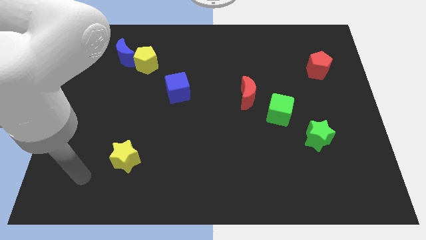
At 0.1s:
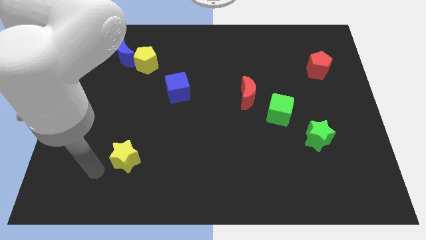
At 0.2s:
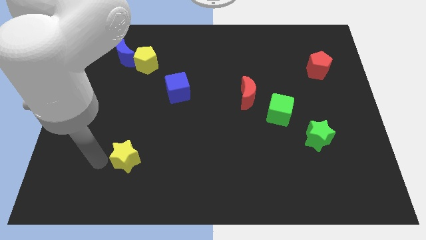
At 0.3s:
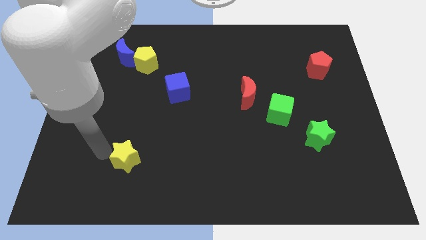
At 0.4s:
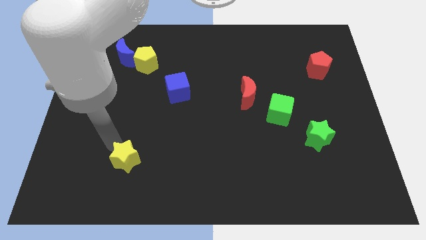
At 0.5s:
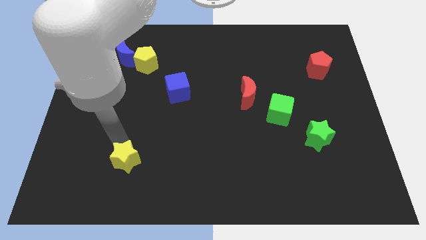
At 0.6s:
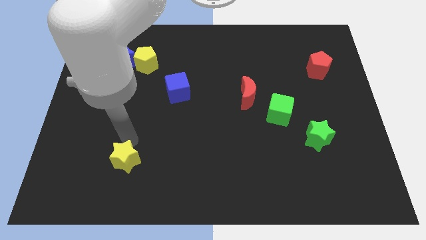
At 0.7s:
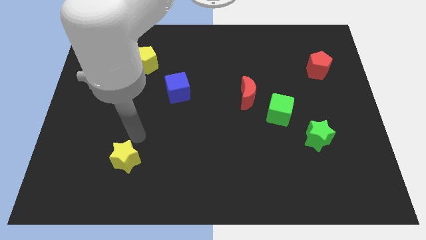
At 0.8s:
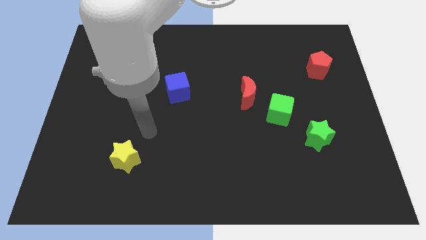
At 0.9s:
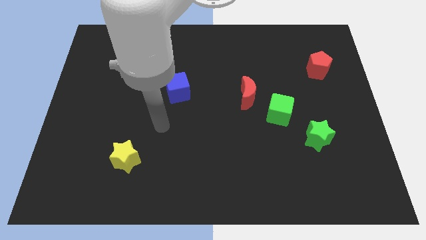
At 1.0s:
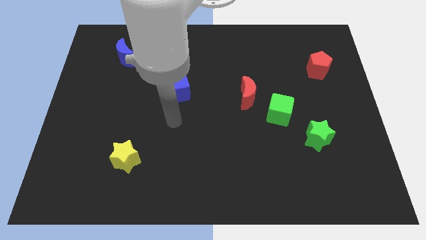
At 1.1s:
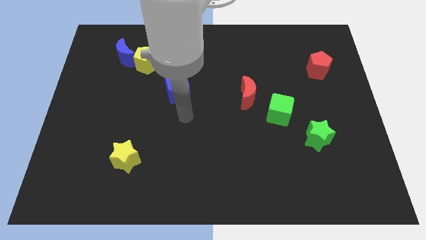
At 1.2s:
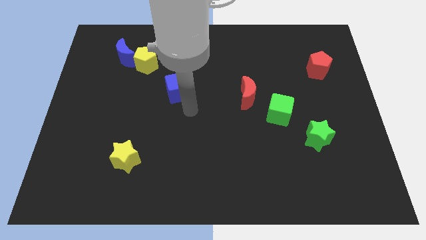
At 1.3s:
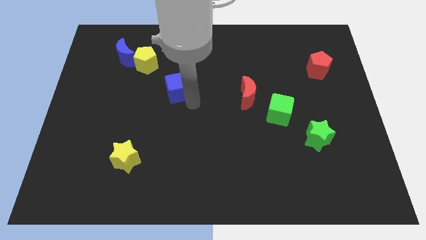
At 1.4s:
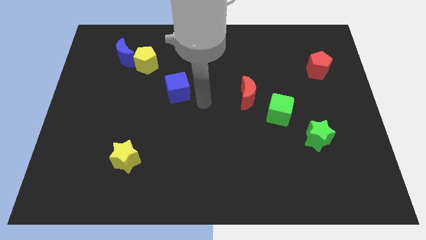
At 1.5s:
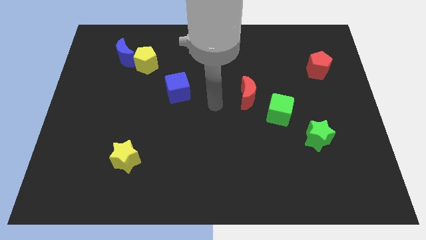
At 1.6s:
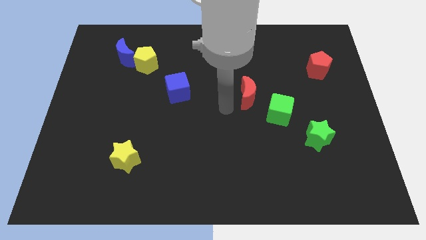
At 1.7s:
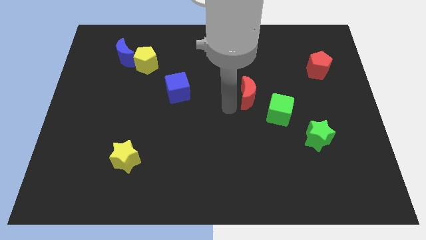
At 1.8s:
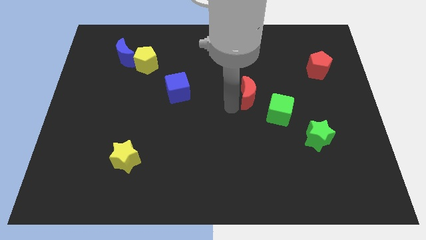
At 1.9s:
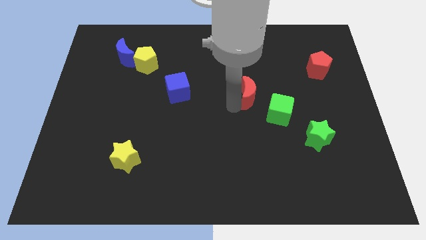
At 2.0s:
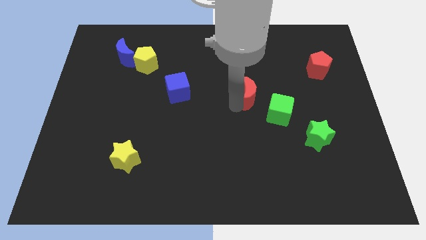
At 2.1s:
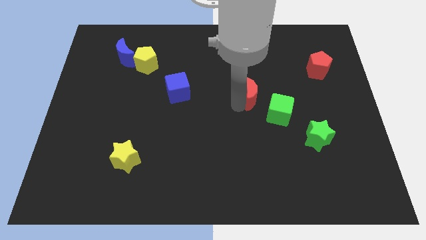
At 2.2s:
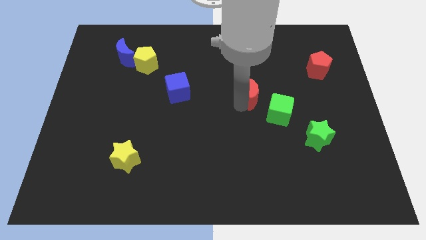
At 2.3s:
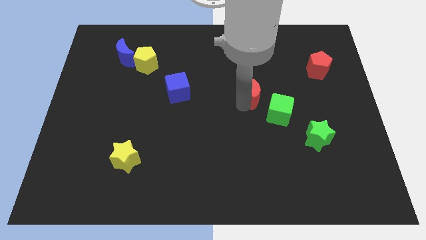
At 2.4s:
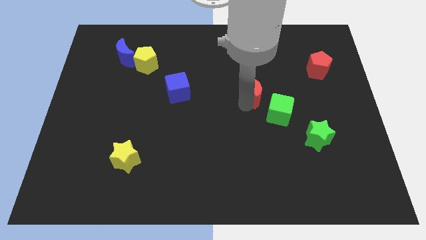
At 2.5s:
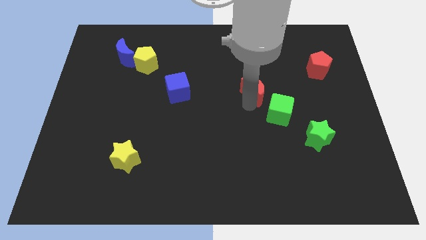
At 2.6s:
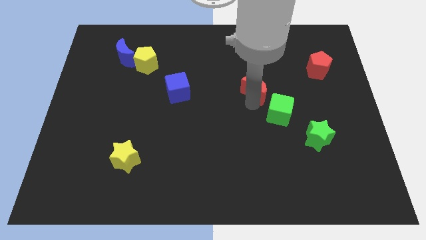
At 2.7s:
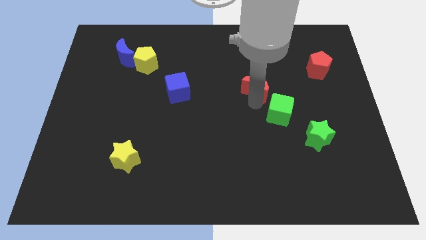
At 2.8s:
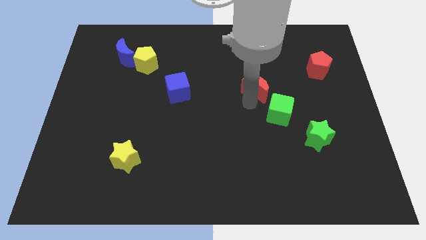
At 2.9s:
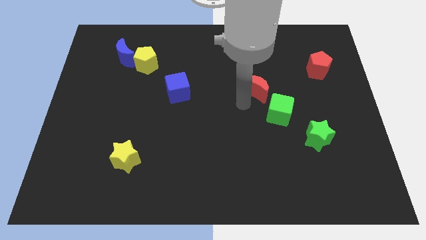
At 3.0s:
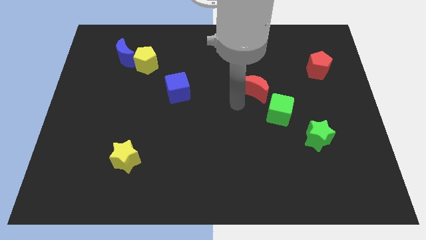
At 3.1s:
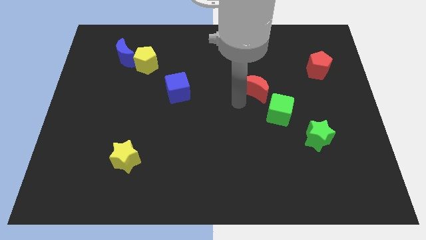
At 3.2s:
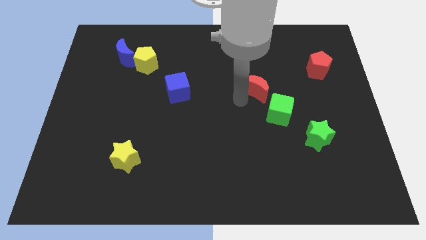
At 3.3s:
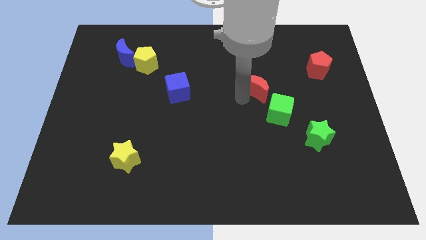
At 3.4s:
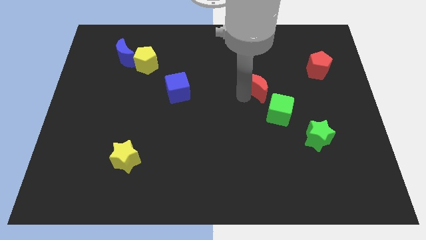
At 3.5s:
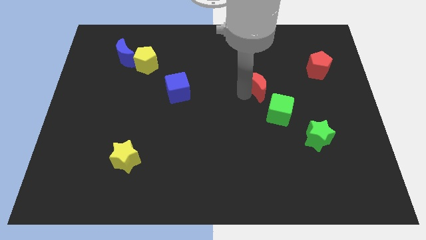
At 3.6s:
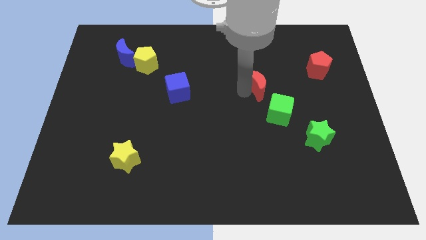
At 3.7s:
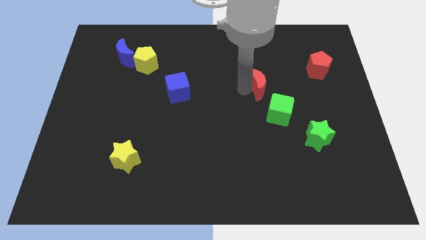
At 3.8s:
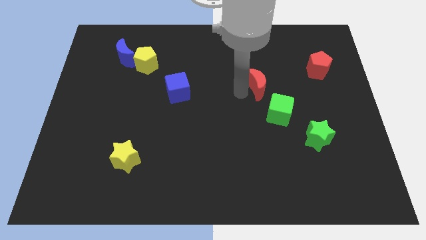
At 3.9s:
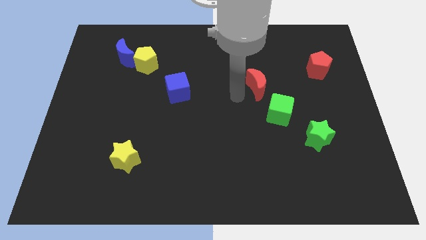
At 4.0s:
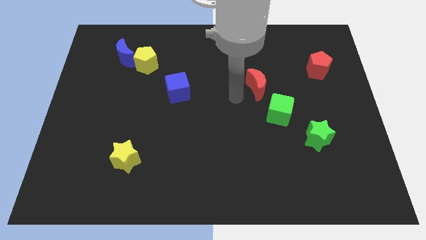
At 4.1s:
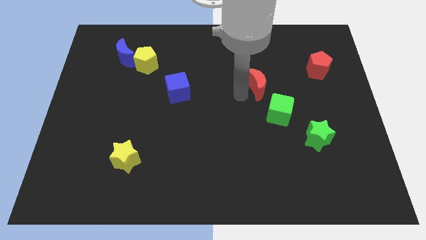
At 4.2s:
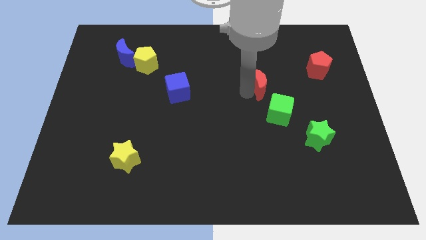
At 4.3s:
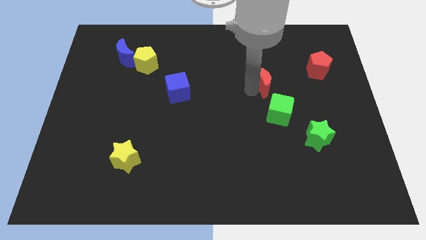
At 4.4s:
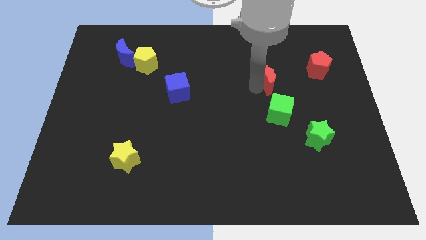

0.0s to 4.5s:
move the red moon diagonally upwards and to the right a little bit

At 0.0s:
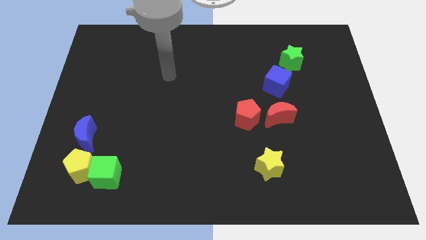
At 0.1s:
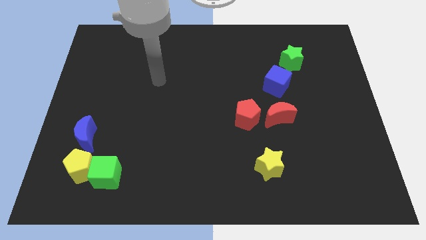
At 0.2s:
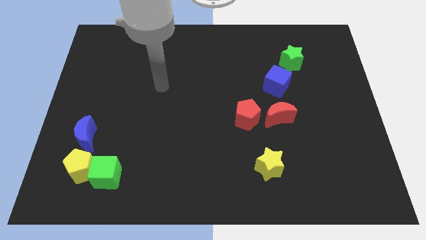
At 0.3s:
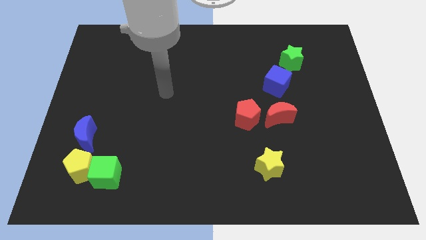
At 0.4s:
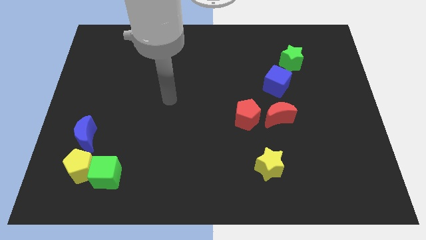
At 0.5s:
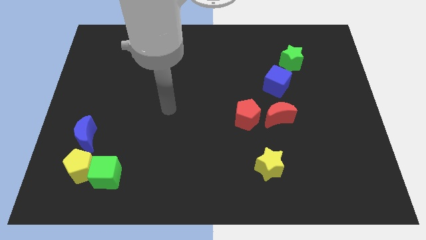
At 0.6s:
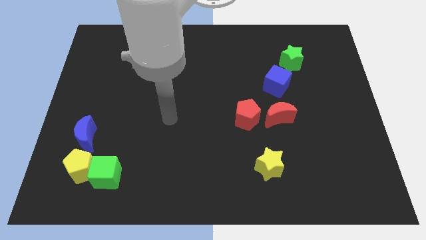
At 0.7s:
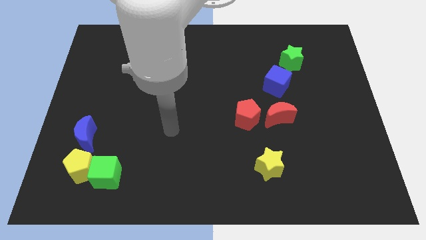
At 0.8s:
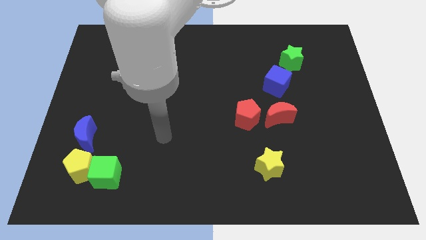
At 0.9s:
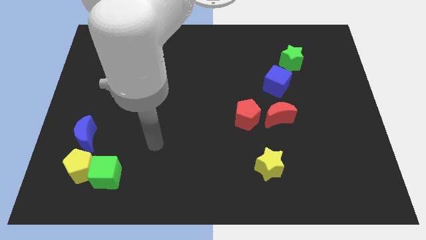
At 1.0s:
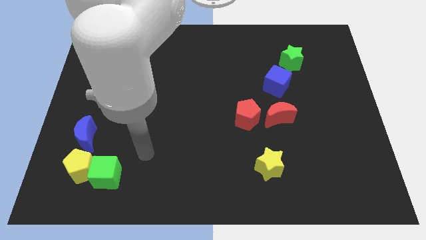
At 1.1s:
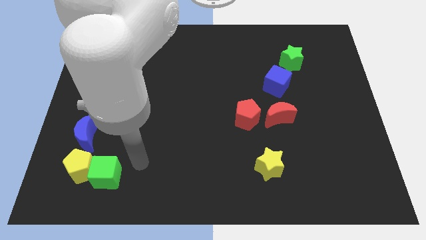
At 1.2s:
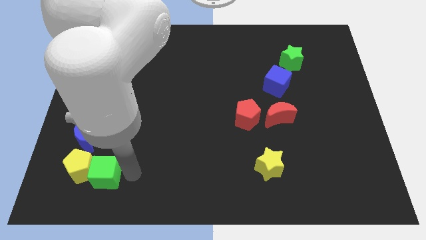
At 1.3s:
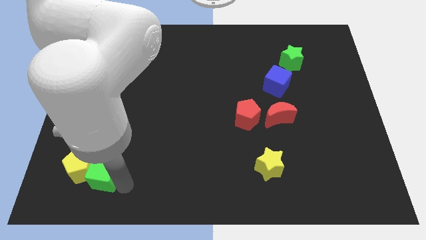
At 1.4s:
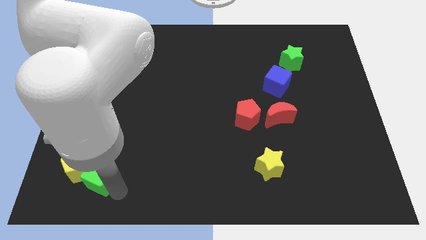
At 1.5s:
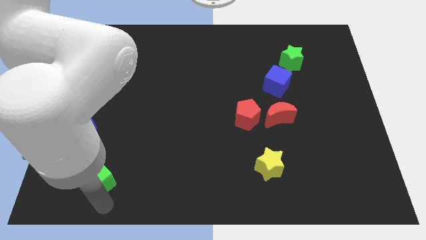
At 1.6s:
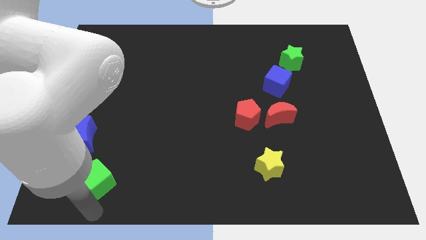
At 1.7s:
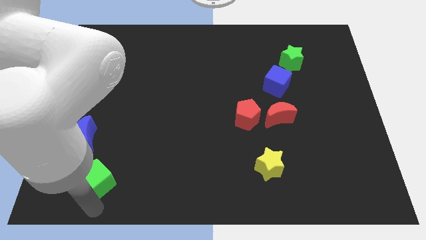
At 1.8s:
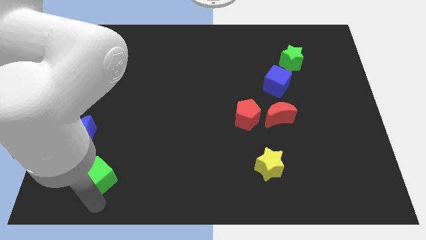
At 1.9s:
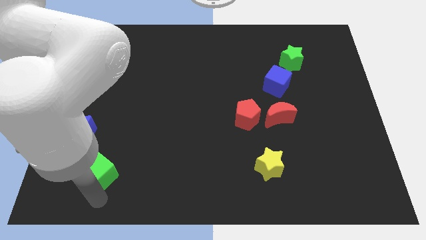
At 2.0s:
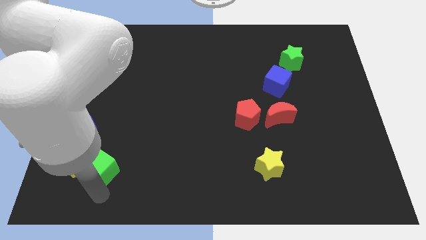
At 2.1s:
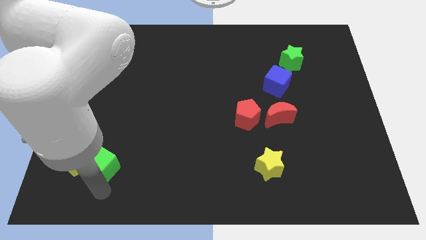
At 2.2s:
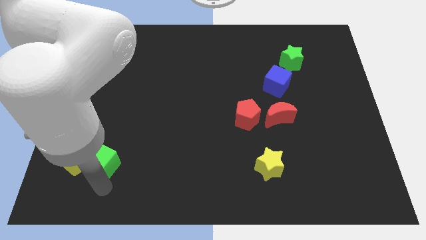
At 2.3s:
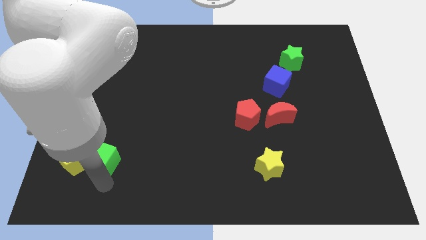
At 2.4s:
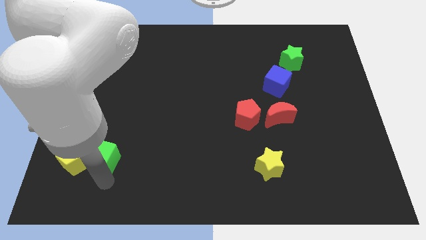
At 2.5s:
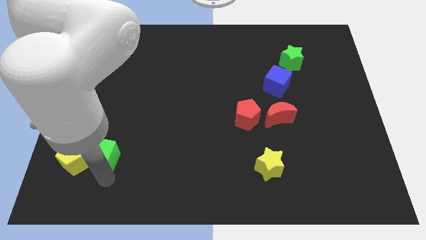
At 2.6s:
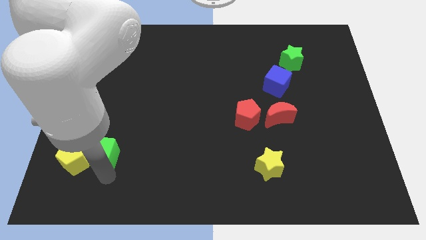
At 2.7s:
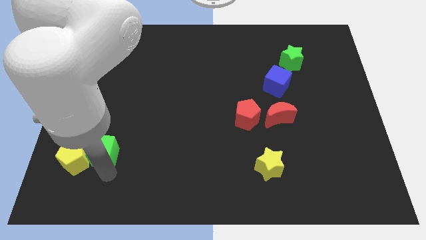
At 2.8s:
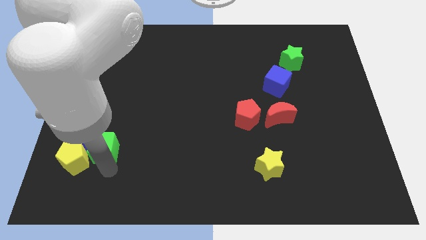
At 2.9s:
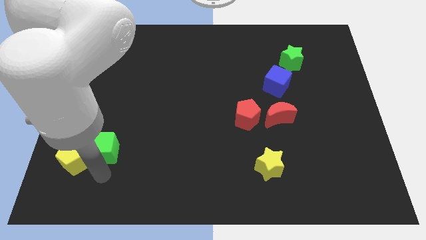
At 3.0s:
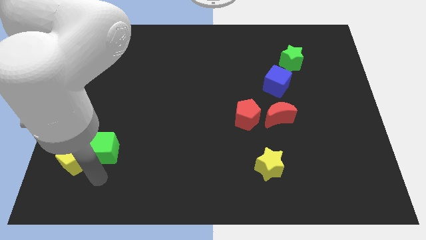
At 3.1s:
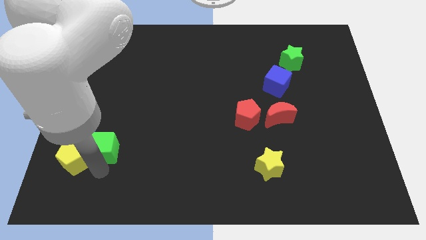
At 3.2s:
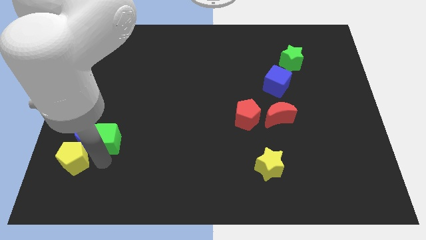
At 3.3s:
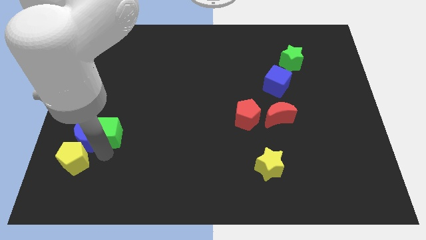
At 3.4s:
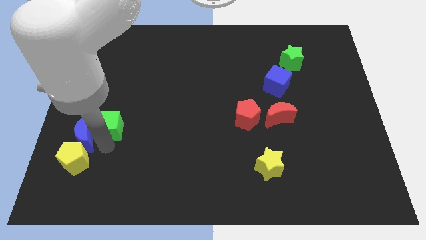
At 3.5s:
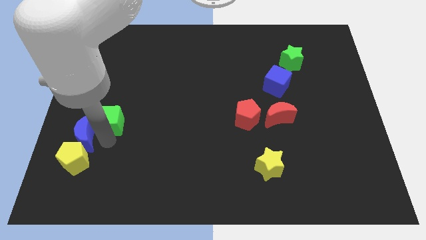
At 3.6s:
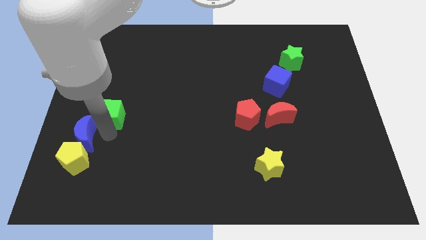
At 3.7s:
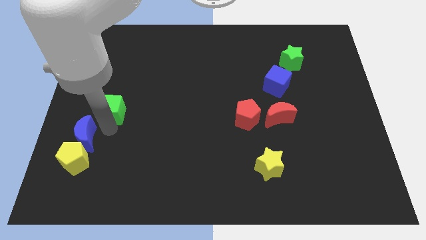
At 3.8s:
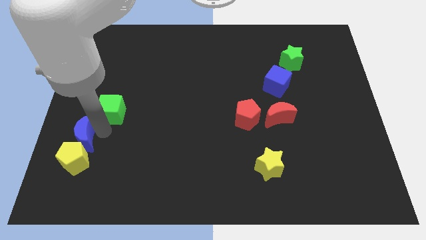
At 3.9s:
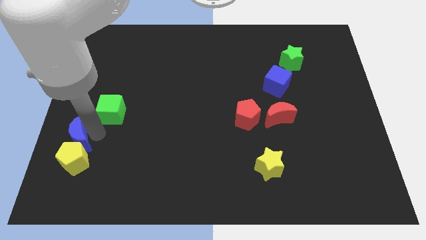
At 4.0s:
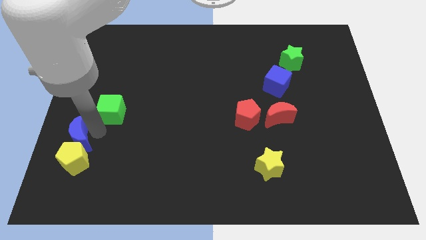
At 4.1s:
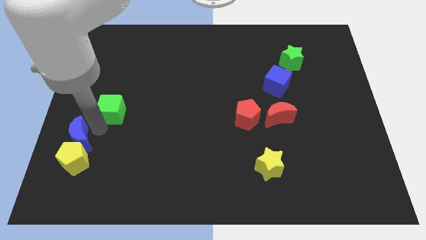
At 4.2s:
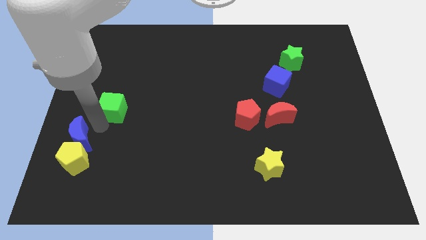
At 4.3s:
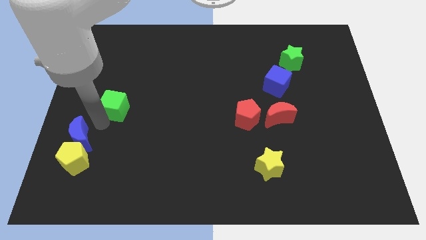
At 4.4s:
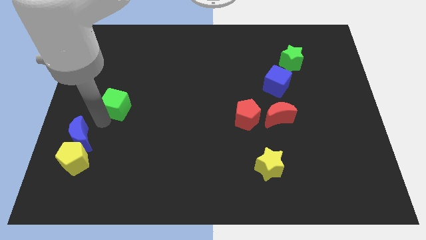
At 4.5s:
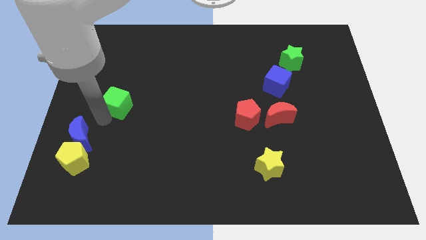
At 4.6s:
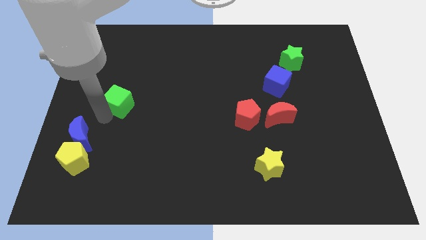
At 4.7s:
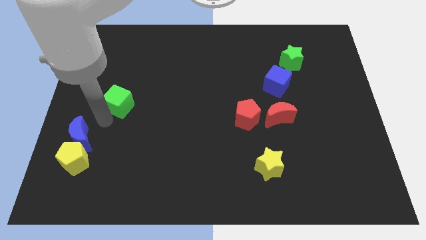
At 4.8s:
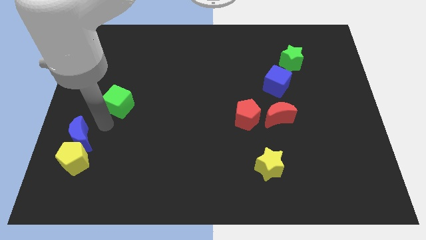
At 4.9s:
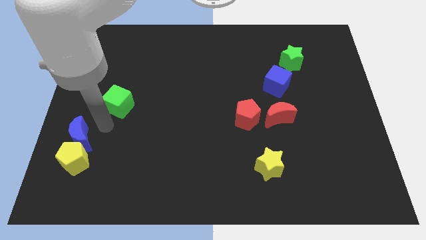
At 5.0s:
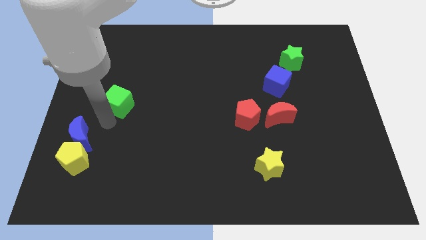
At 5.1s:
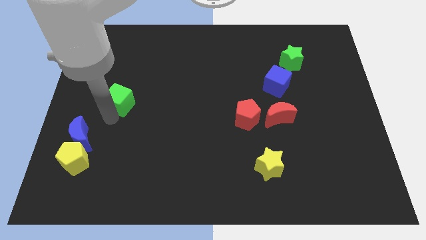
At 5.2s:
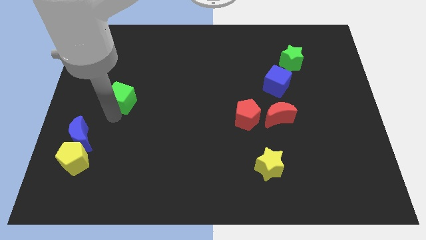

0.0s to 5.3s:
slide the green cube upwards
